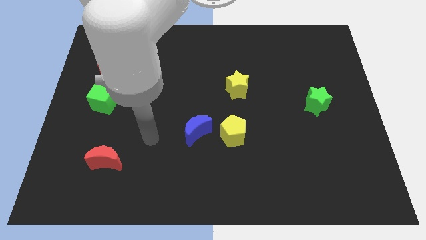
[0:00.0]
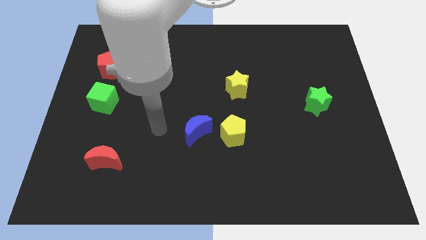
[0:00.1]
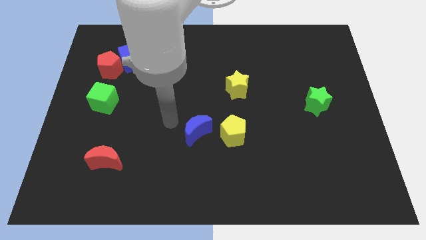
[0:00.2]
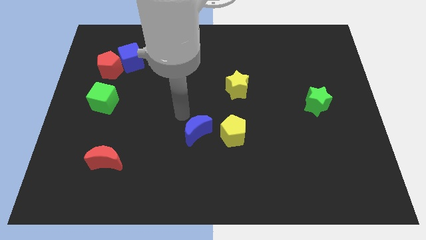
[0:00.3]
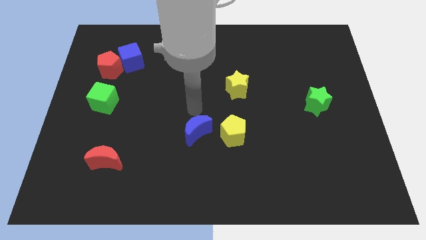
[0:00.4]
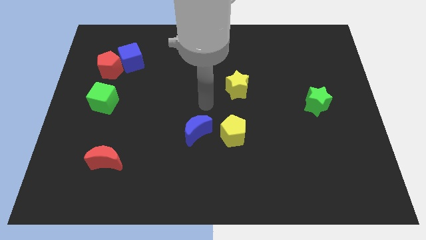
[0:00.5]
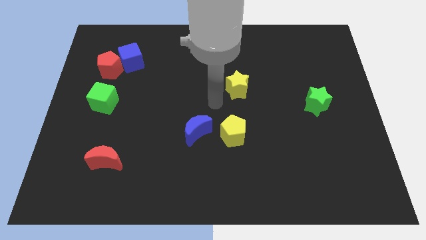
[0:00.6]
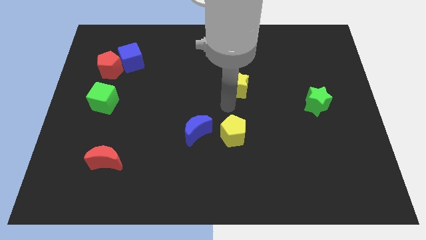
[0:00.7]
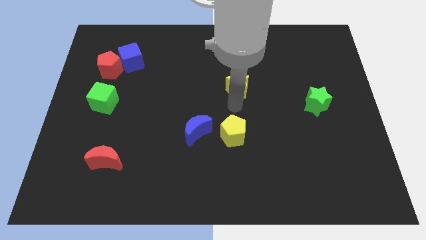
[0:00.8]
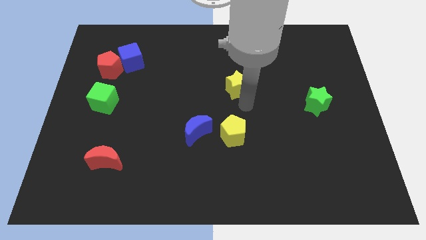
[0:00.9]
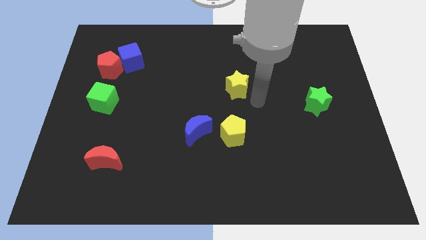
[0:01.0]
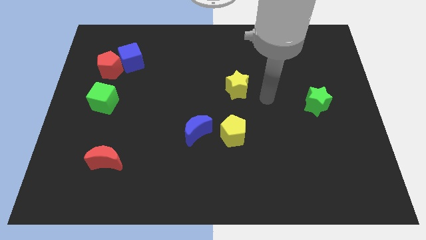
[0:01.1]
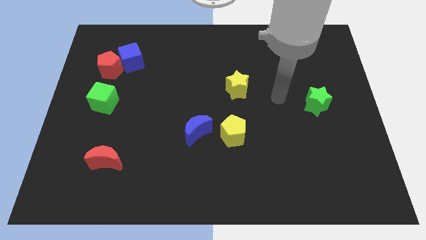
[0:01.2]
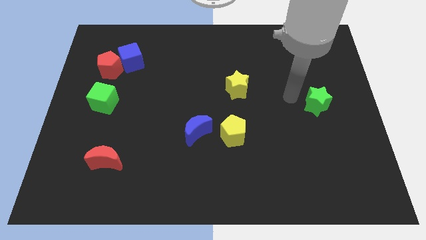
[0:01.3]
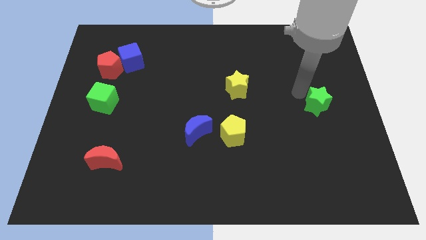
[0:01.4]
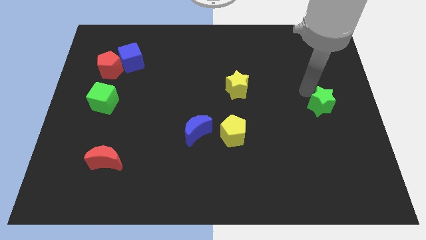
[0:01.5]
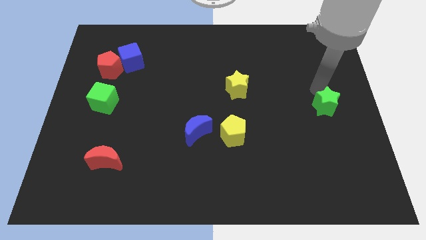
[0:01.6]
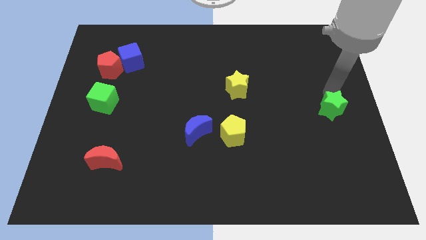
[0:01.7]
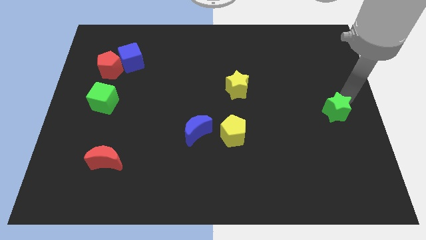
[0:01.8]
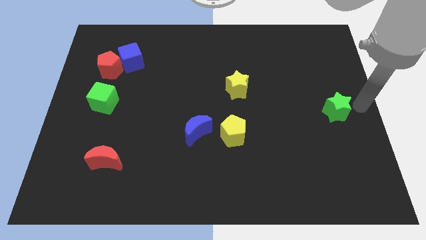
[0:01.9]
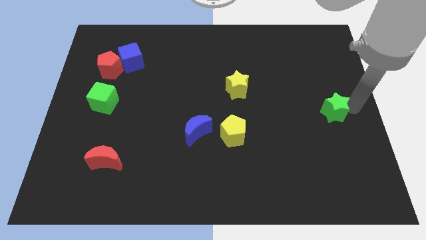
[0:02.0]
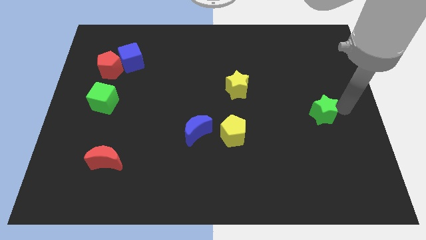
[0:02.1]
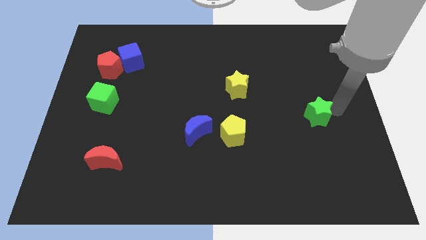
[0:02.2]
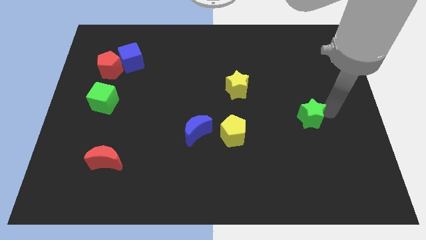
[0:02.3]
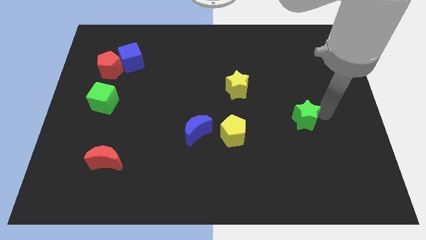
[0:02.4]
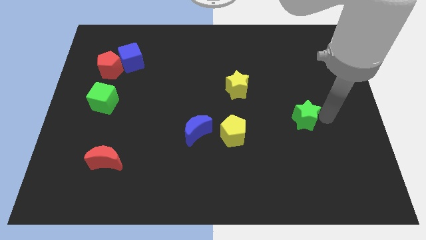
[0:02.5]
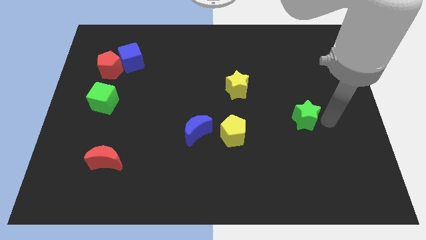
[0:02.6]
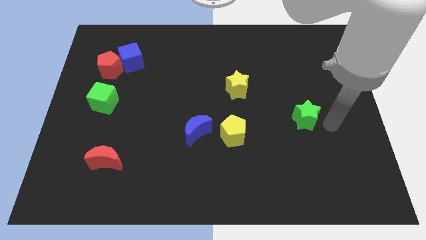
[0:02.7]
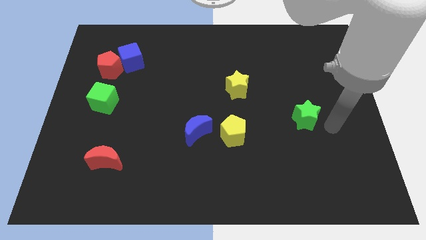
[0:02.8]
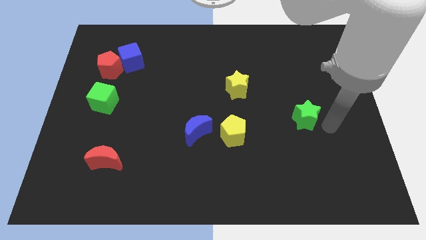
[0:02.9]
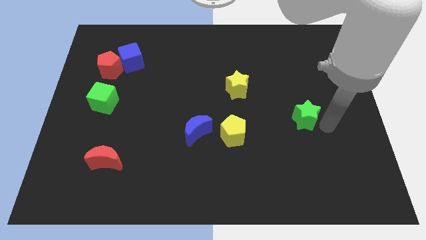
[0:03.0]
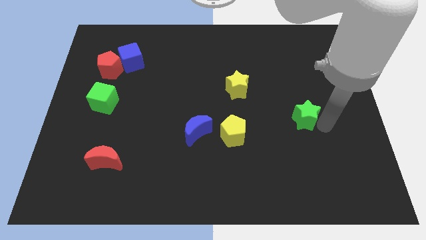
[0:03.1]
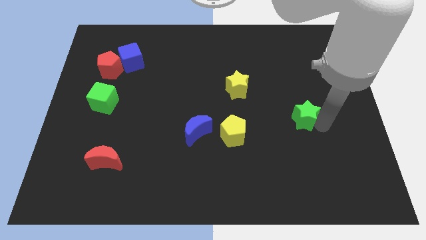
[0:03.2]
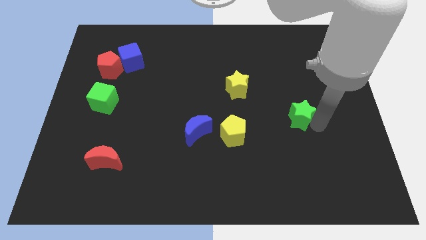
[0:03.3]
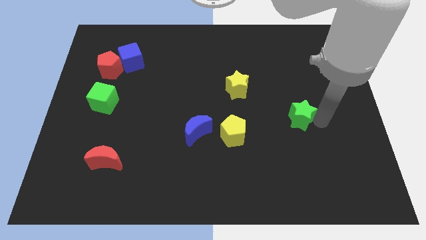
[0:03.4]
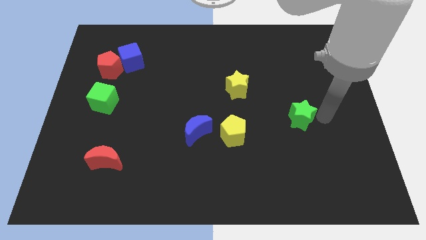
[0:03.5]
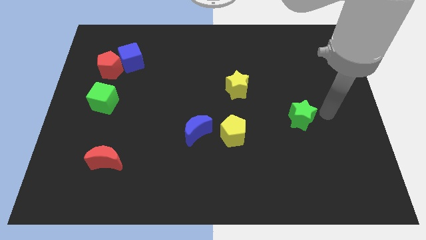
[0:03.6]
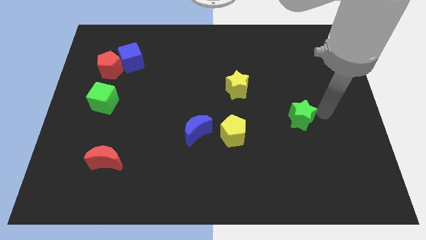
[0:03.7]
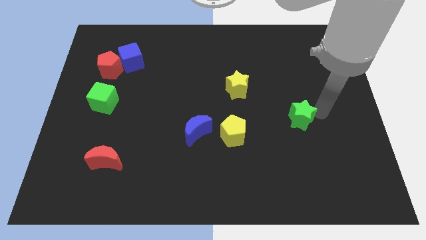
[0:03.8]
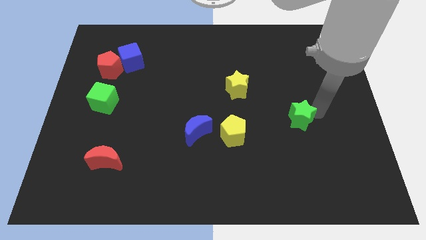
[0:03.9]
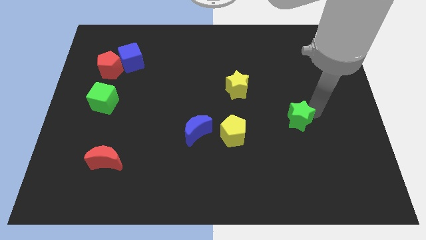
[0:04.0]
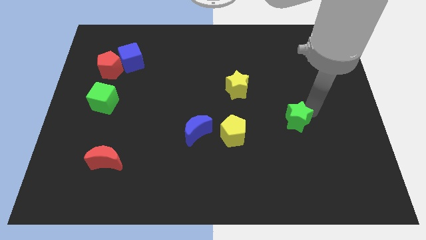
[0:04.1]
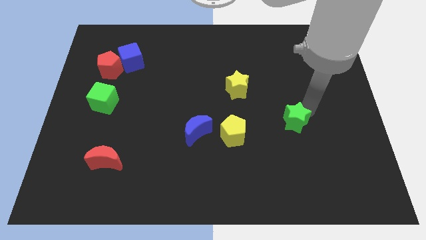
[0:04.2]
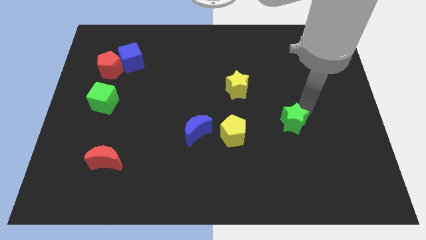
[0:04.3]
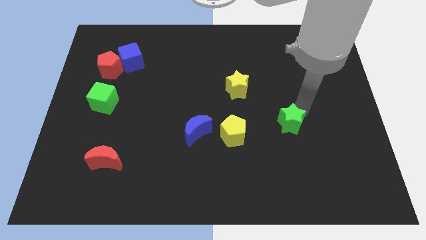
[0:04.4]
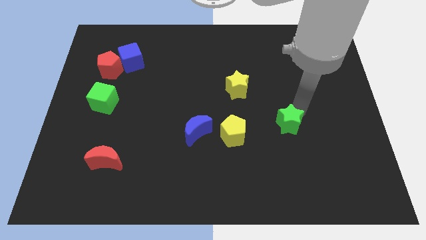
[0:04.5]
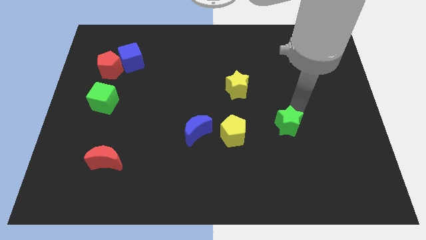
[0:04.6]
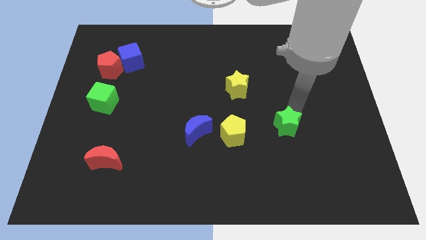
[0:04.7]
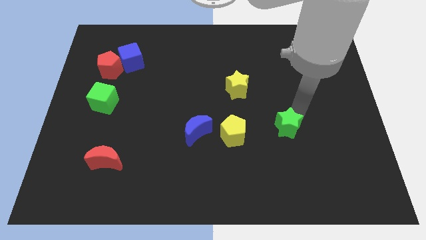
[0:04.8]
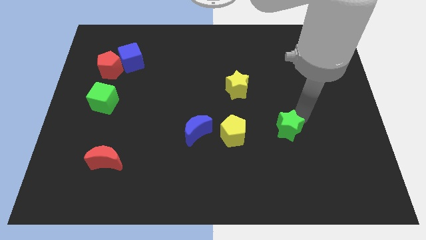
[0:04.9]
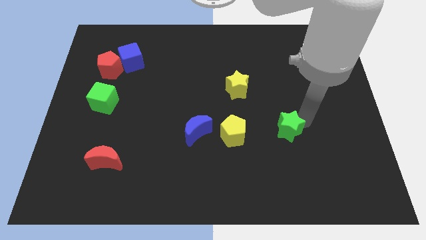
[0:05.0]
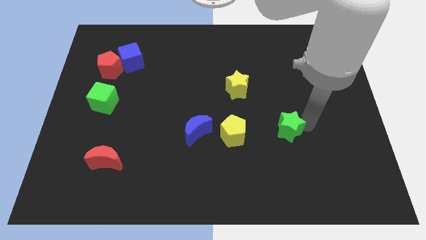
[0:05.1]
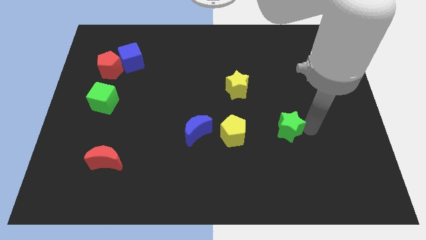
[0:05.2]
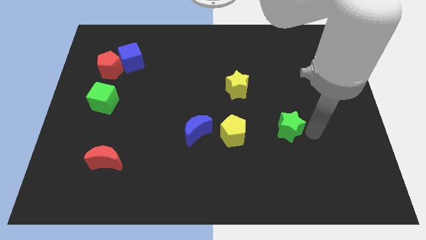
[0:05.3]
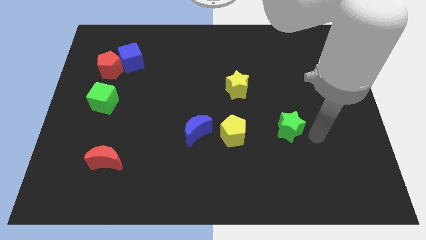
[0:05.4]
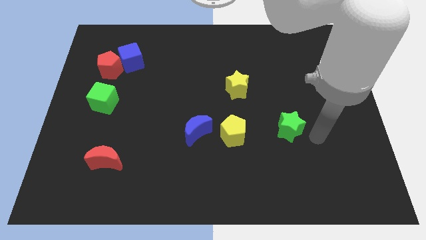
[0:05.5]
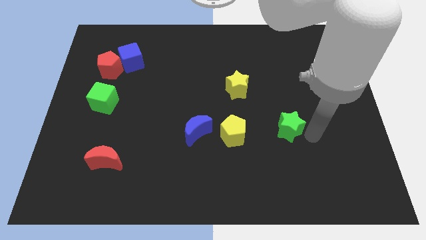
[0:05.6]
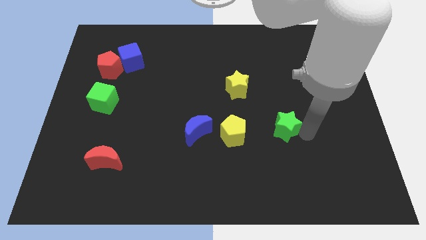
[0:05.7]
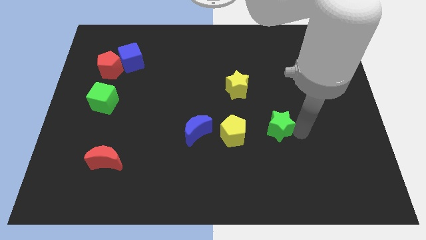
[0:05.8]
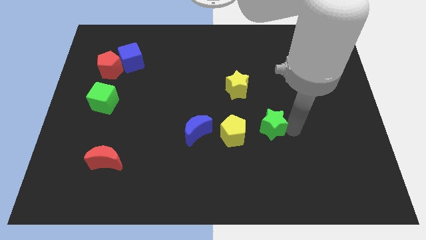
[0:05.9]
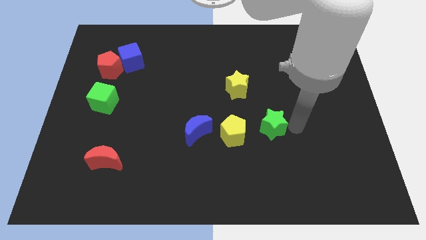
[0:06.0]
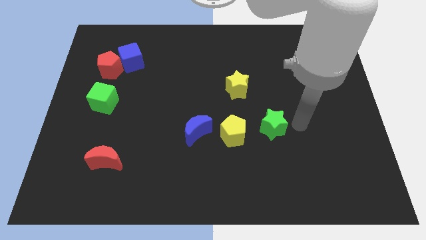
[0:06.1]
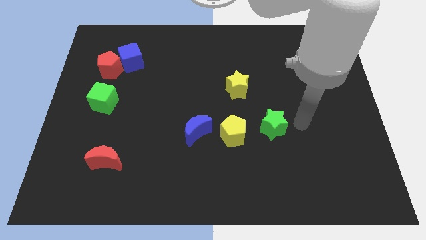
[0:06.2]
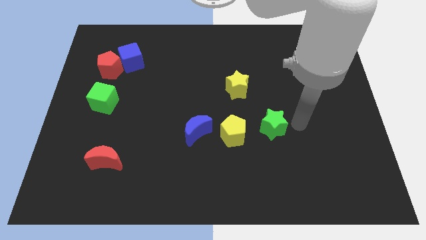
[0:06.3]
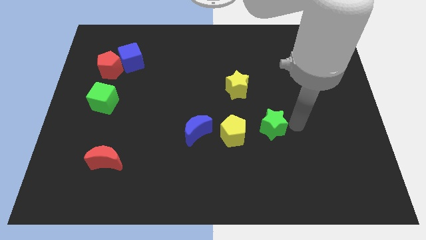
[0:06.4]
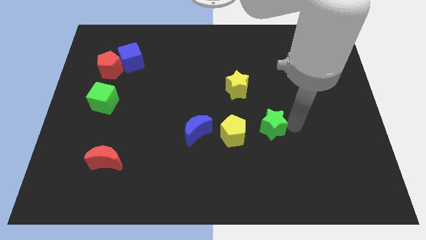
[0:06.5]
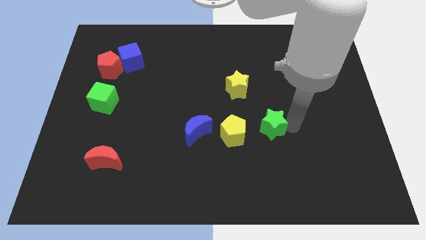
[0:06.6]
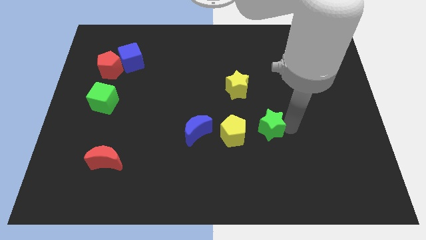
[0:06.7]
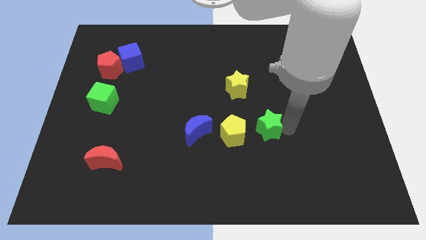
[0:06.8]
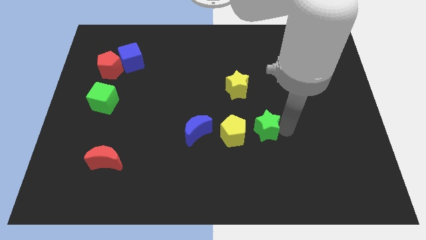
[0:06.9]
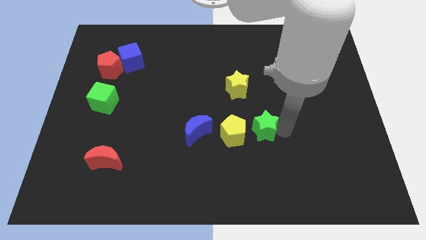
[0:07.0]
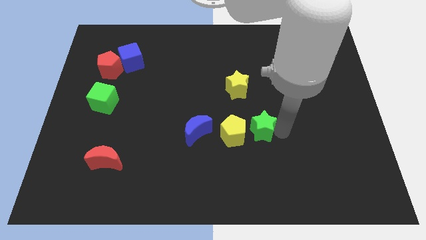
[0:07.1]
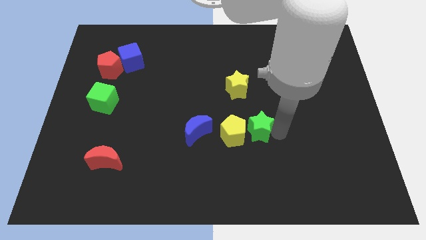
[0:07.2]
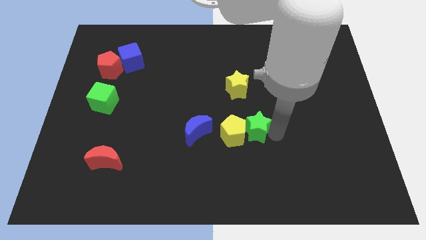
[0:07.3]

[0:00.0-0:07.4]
move the green star next to the yellow pentagon
